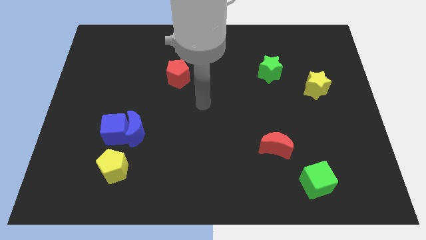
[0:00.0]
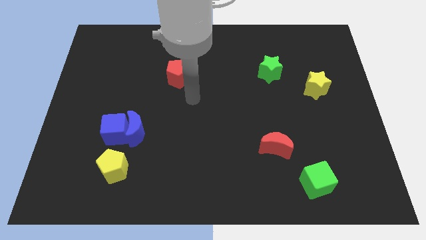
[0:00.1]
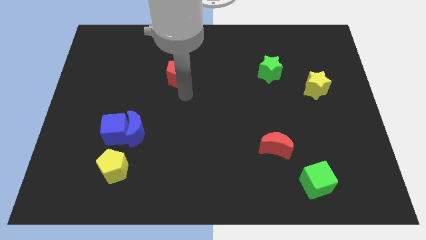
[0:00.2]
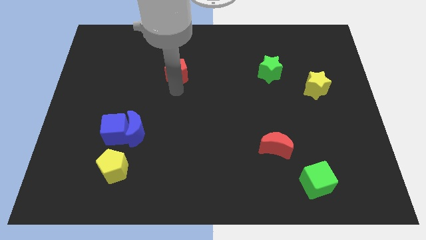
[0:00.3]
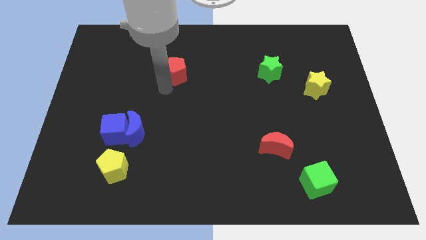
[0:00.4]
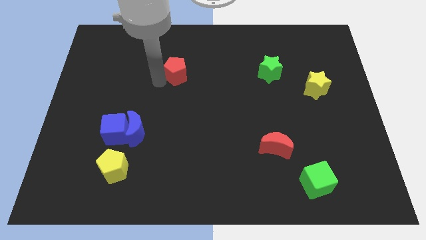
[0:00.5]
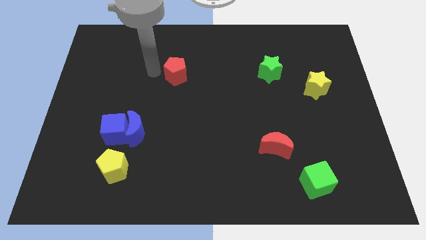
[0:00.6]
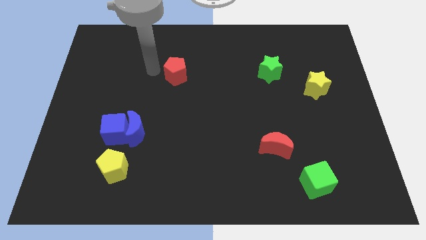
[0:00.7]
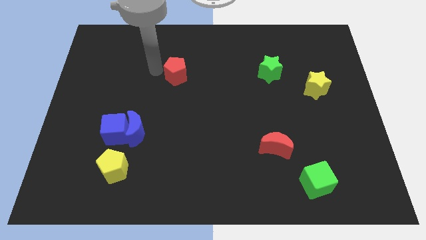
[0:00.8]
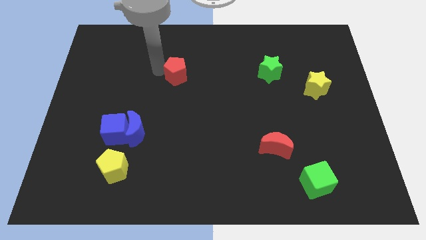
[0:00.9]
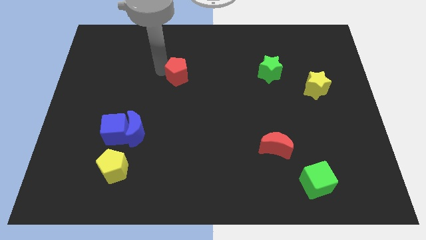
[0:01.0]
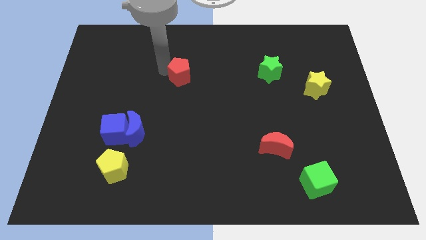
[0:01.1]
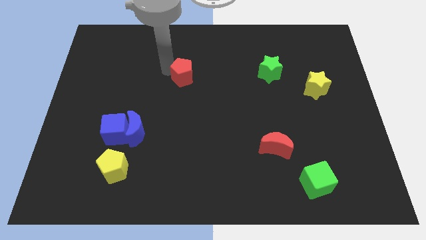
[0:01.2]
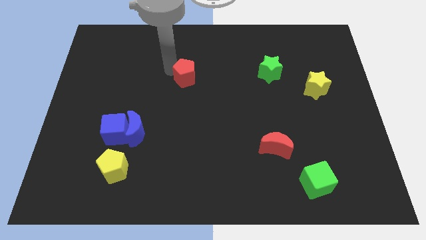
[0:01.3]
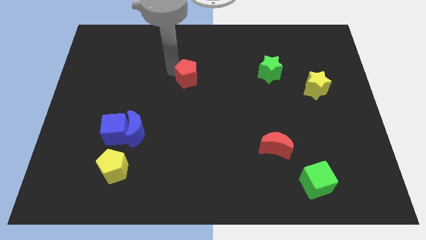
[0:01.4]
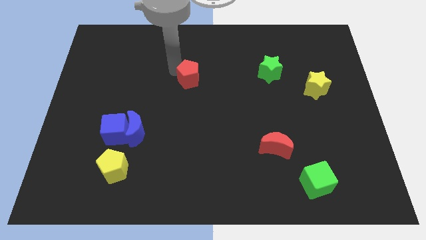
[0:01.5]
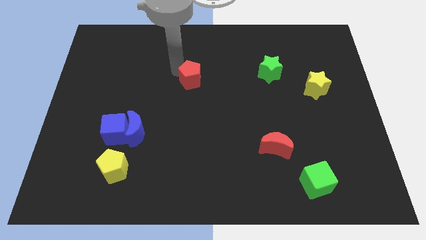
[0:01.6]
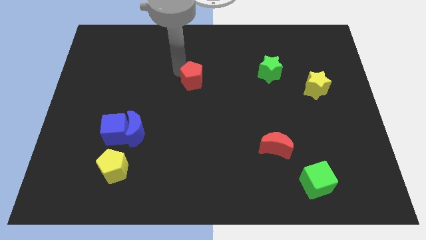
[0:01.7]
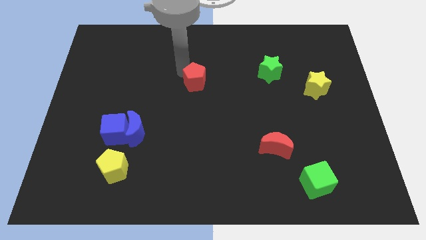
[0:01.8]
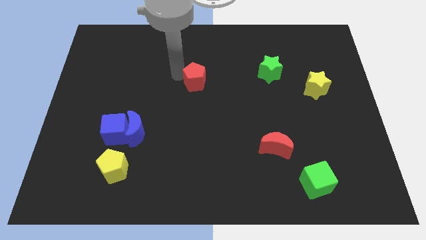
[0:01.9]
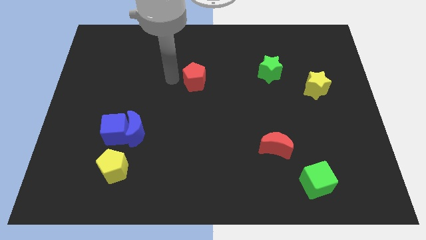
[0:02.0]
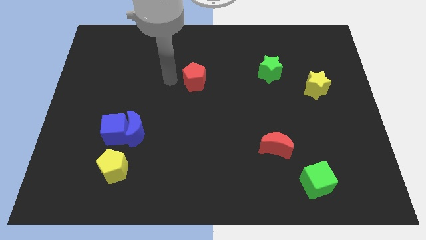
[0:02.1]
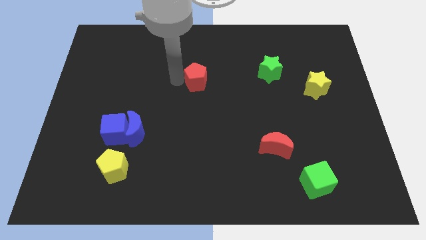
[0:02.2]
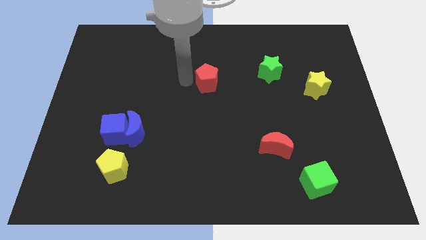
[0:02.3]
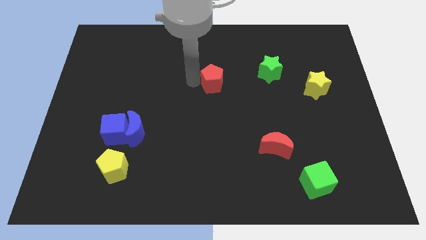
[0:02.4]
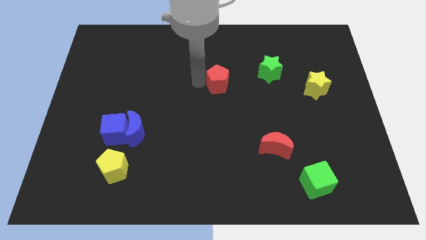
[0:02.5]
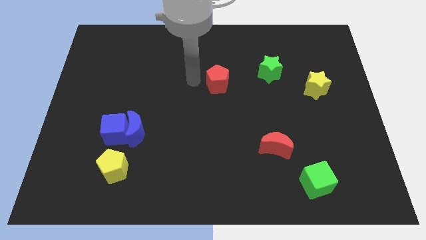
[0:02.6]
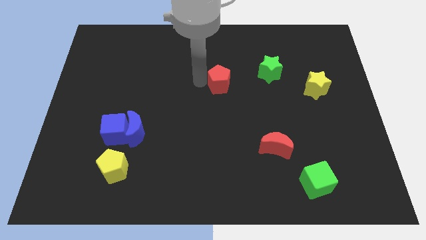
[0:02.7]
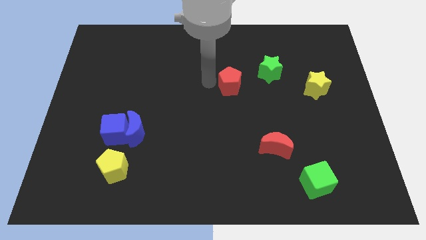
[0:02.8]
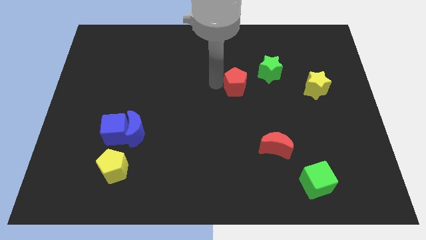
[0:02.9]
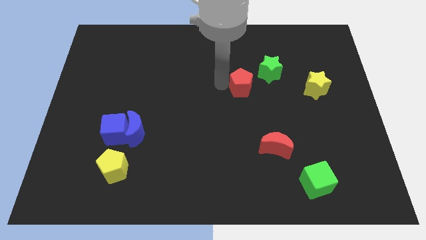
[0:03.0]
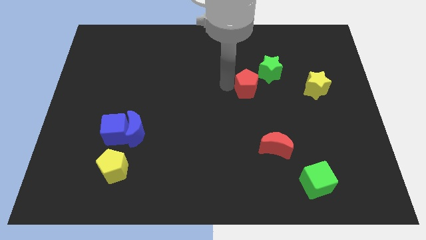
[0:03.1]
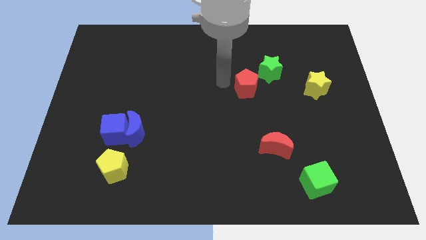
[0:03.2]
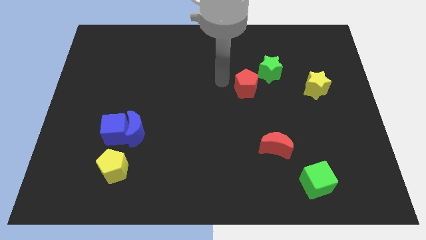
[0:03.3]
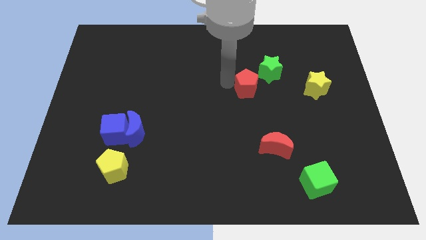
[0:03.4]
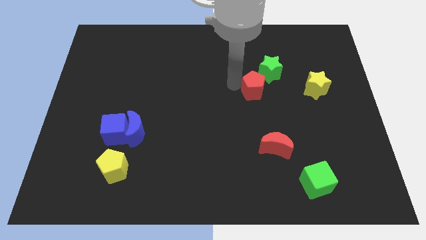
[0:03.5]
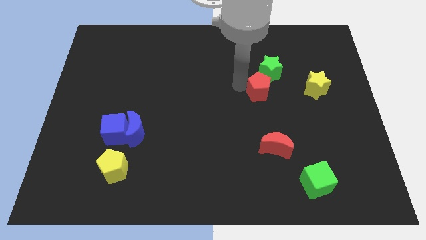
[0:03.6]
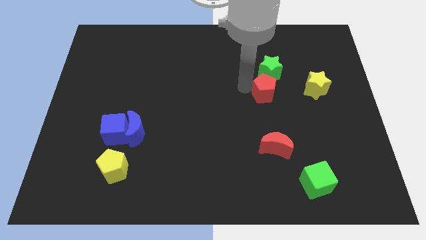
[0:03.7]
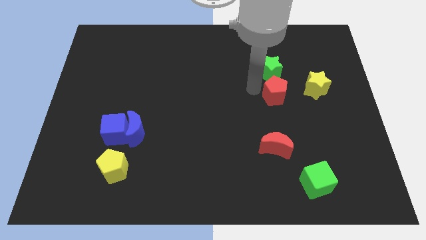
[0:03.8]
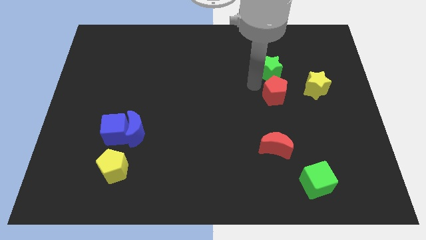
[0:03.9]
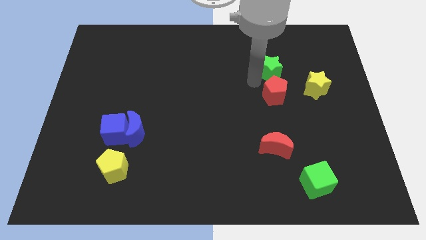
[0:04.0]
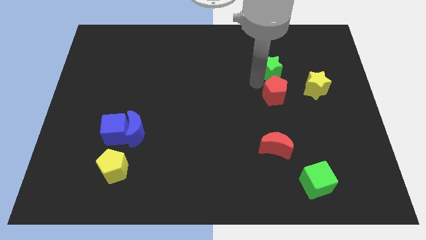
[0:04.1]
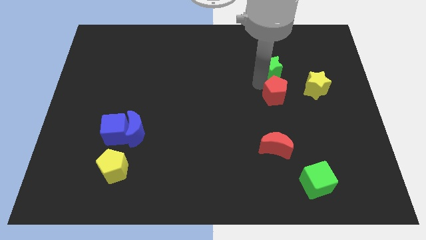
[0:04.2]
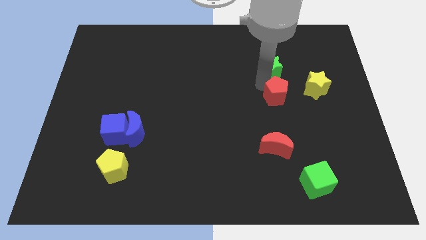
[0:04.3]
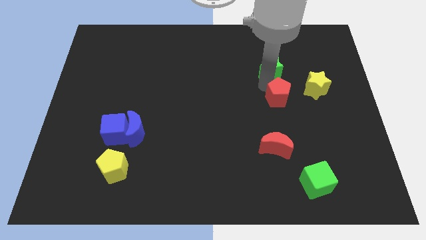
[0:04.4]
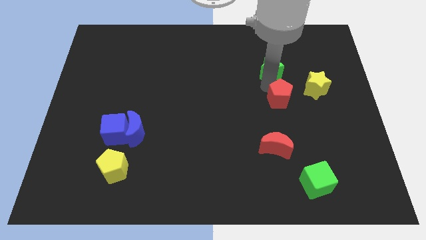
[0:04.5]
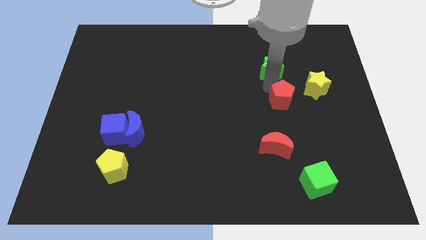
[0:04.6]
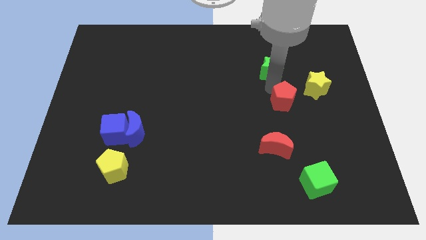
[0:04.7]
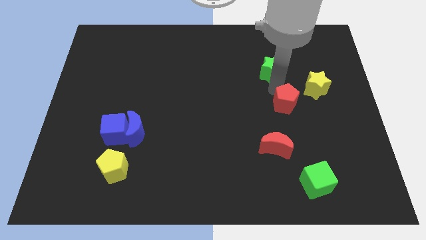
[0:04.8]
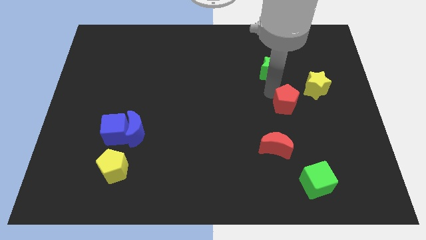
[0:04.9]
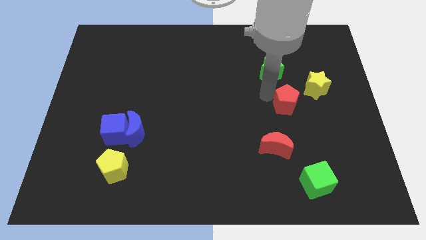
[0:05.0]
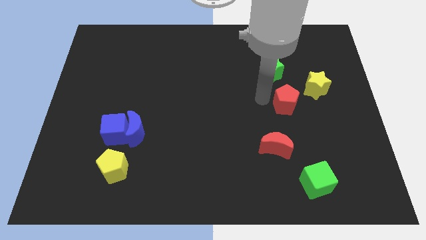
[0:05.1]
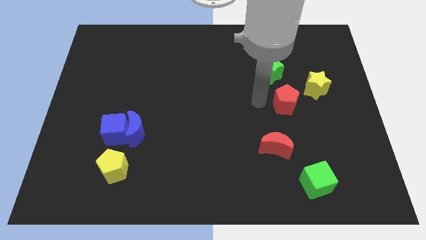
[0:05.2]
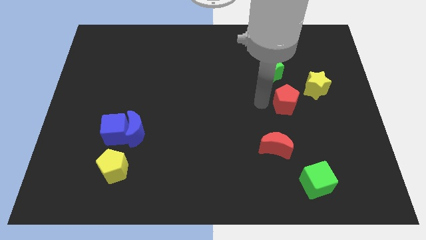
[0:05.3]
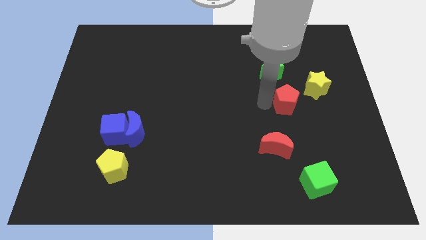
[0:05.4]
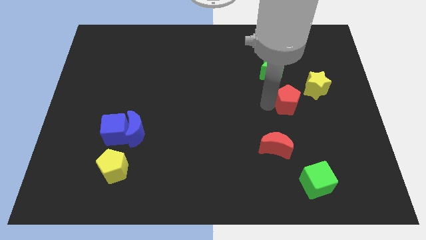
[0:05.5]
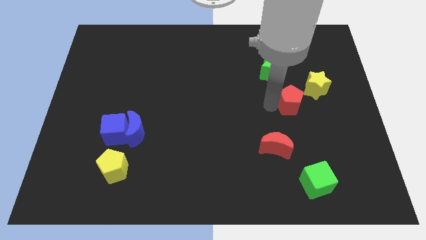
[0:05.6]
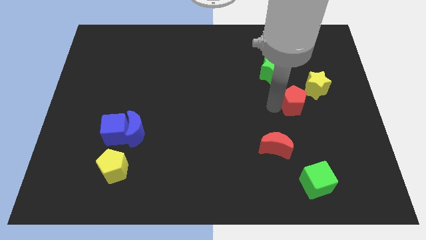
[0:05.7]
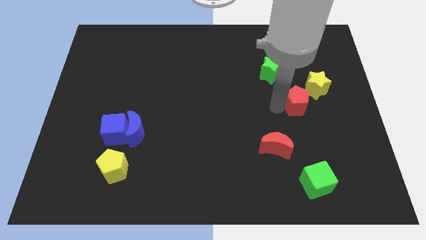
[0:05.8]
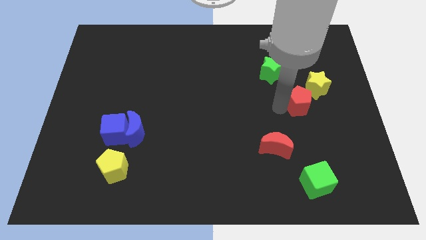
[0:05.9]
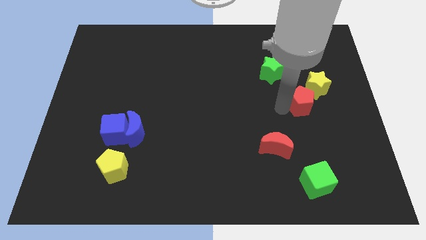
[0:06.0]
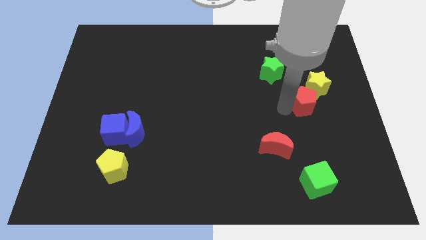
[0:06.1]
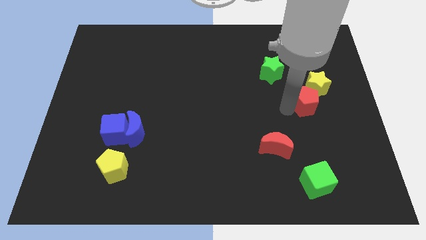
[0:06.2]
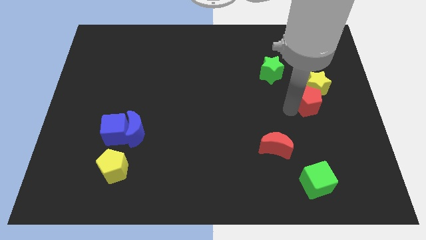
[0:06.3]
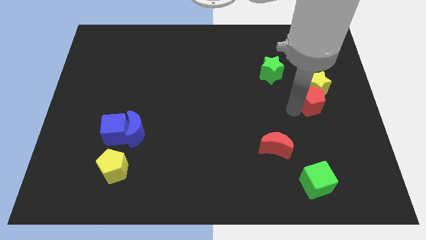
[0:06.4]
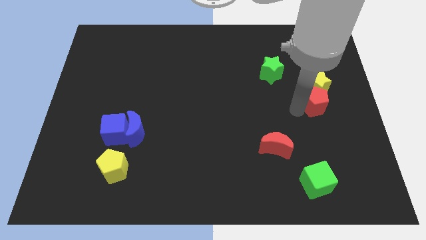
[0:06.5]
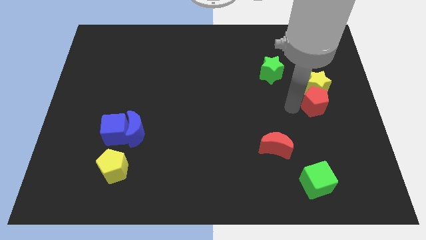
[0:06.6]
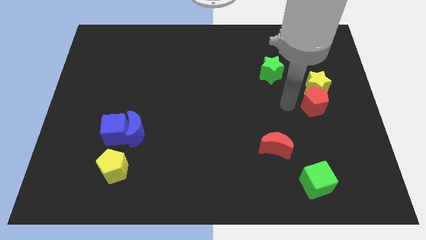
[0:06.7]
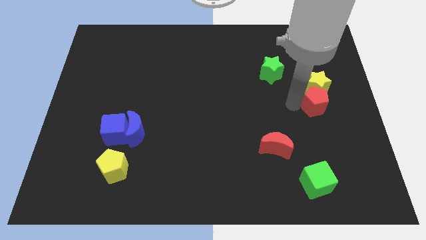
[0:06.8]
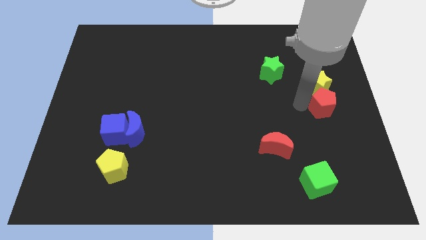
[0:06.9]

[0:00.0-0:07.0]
move the red pentagon to the right side of the board
